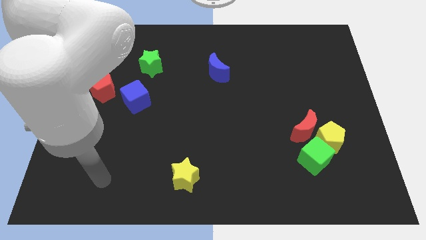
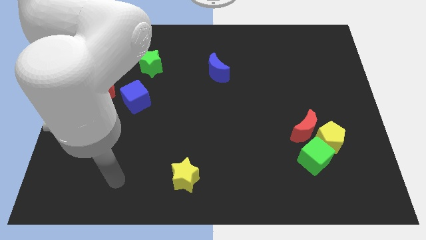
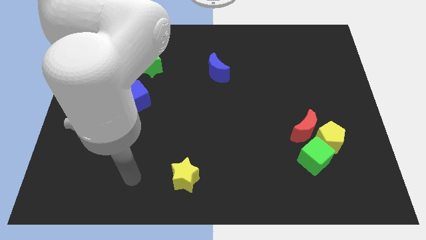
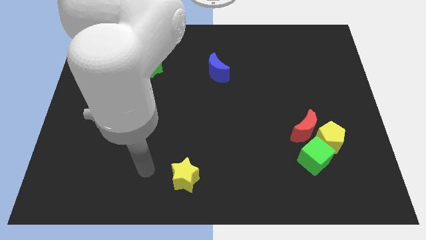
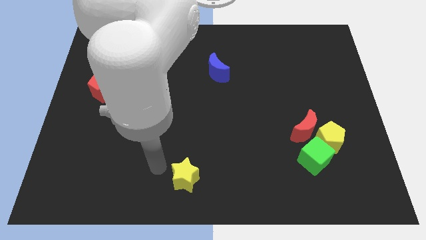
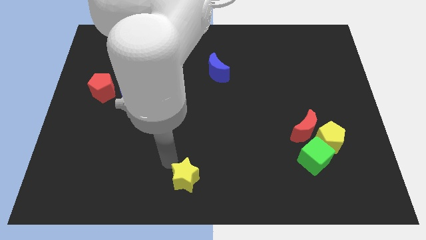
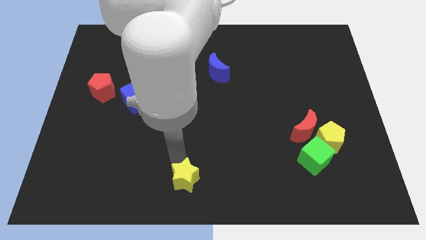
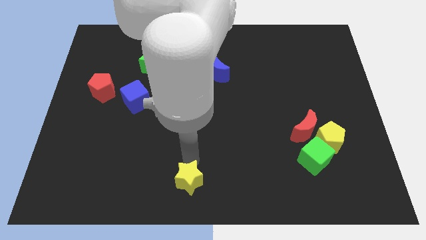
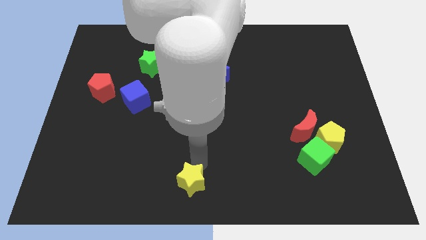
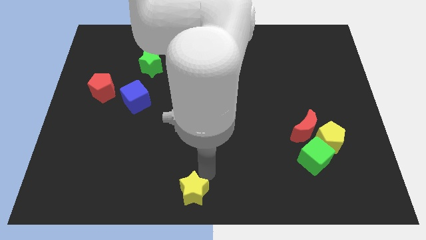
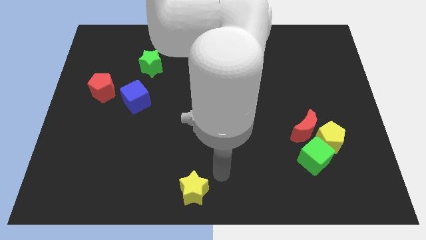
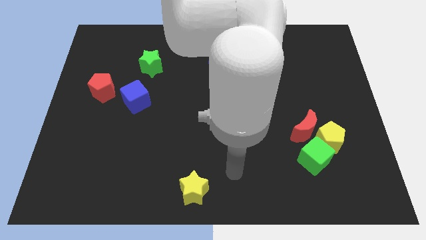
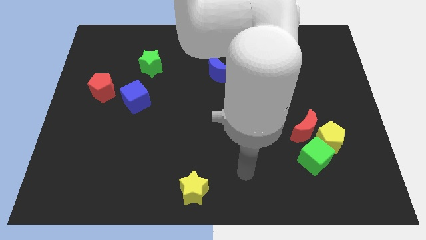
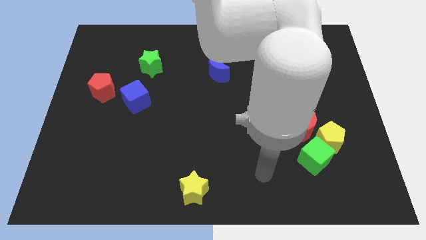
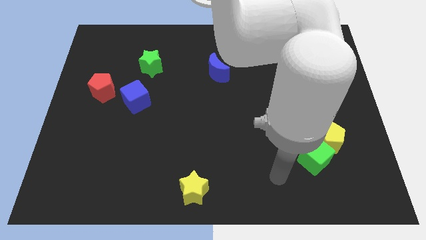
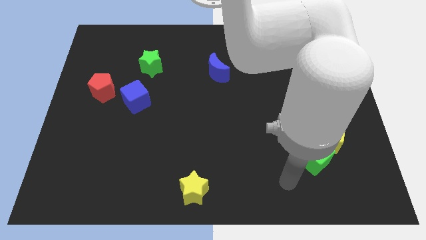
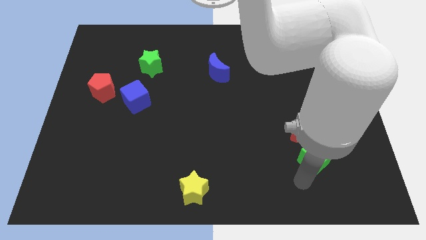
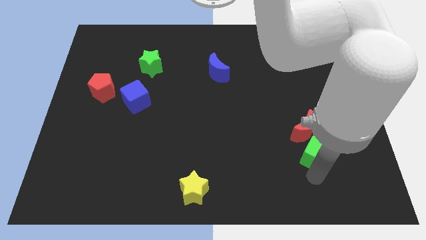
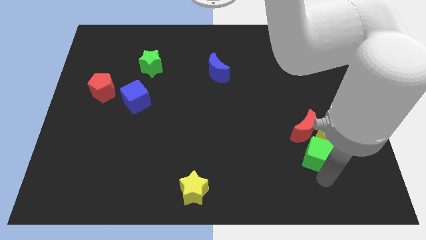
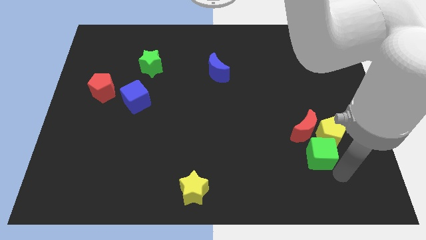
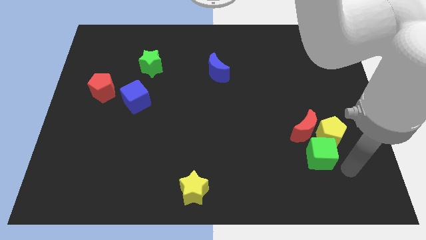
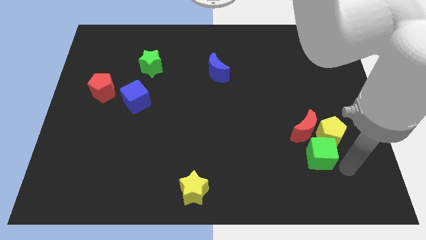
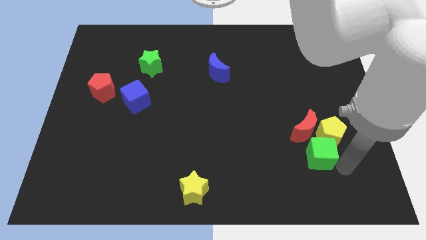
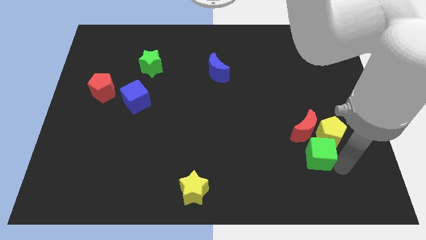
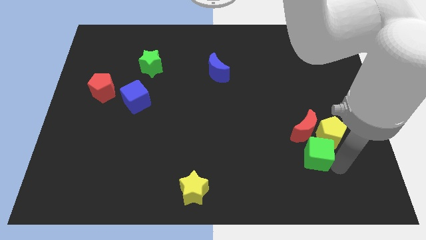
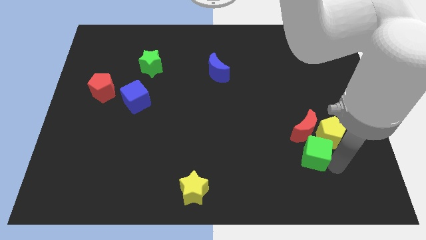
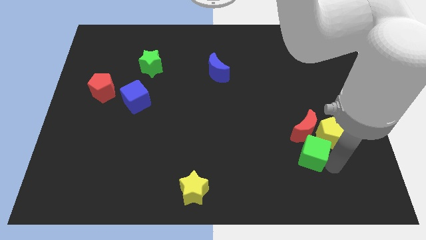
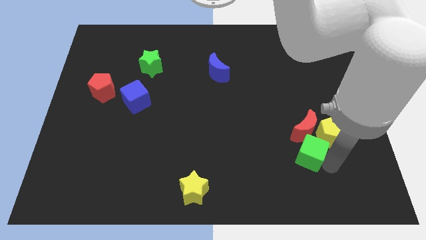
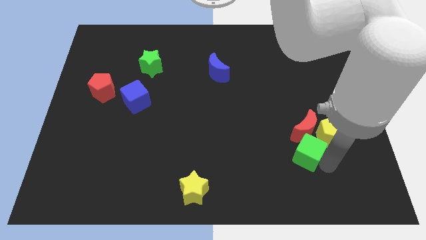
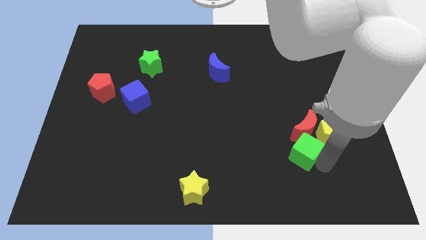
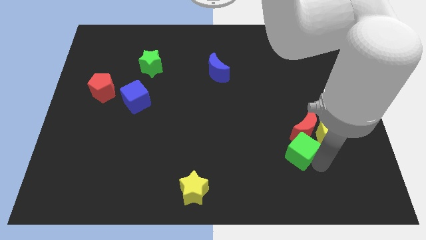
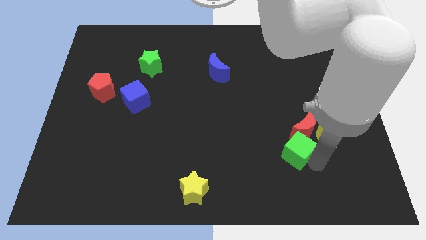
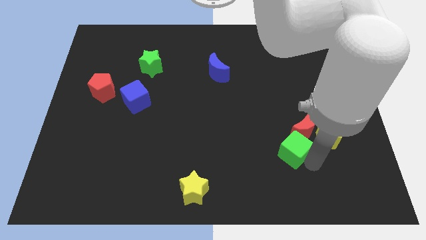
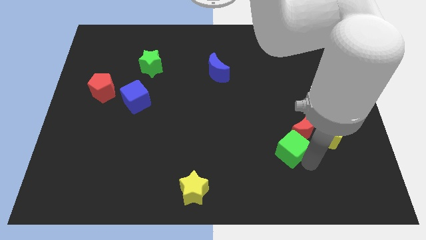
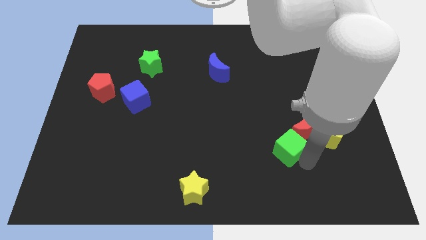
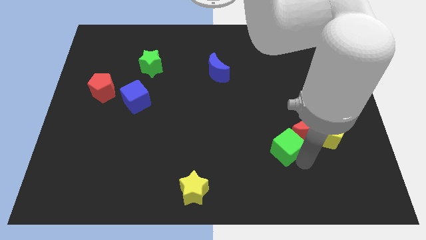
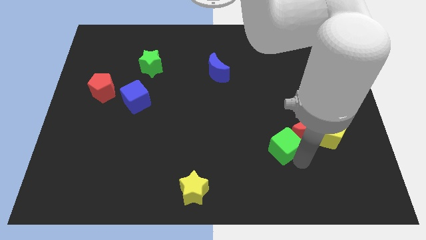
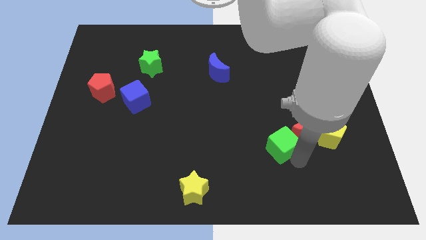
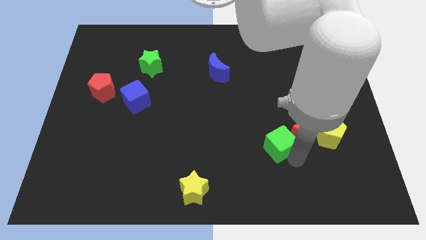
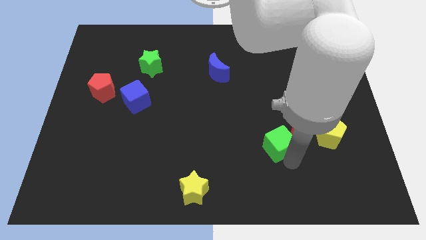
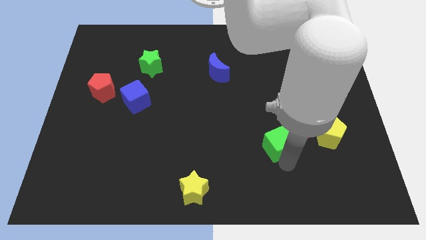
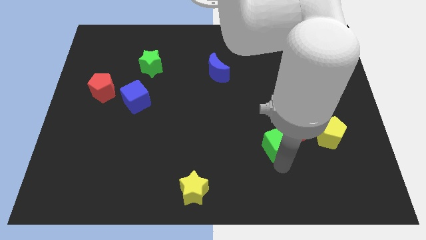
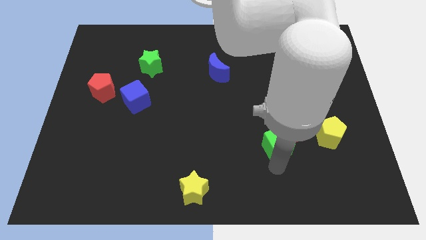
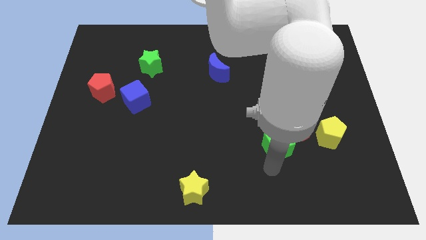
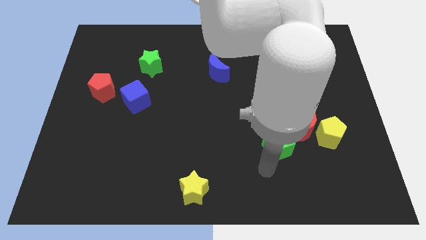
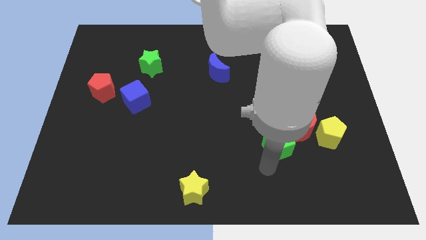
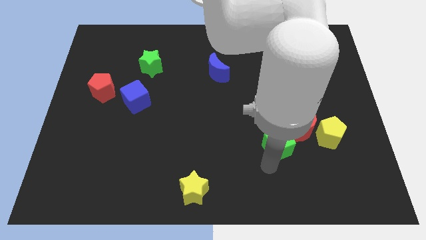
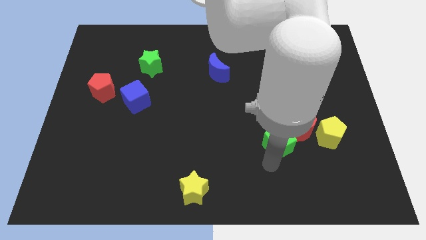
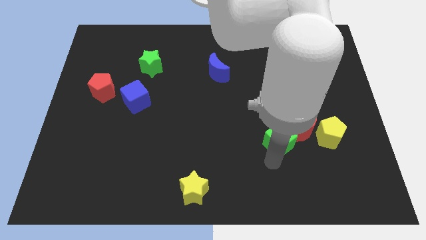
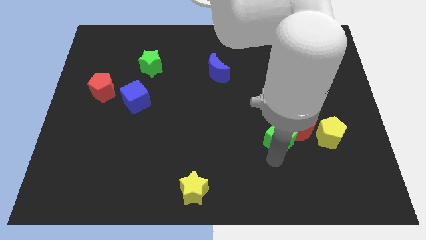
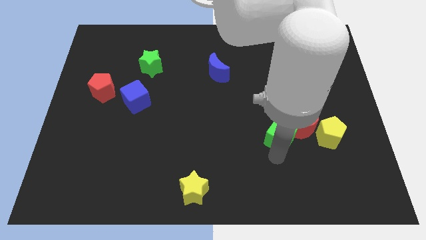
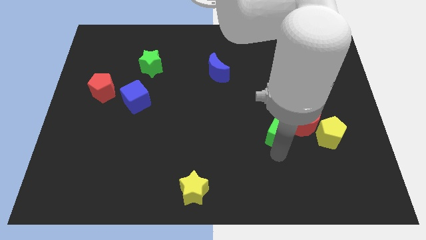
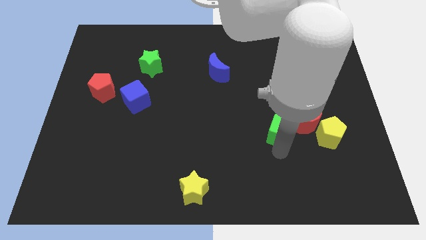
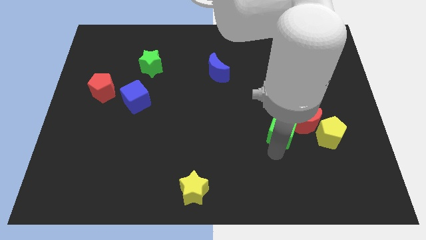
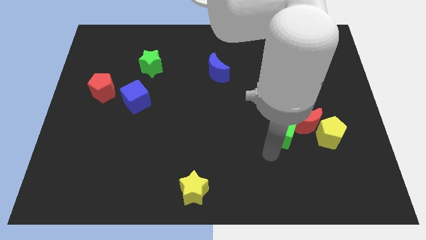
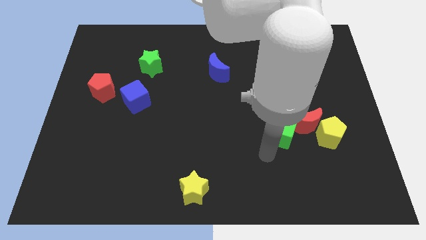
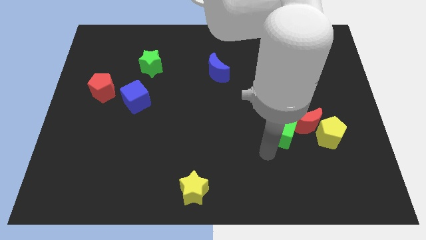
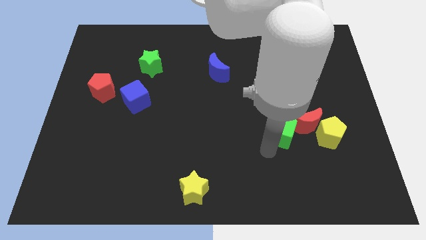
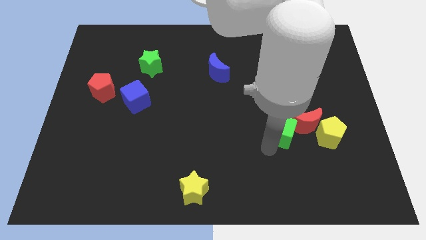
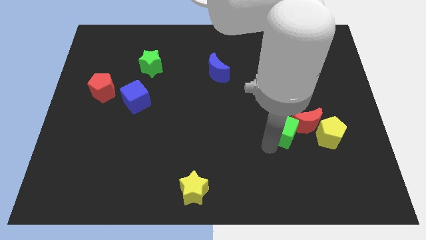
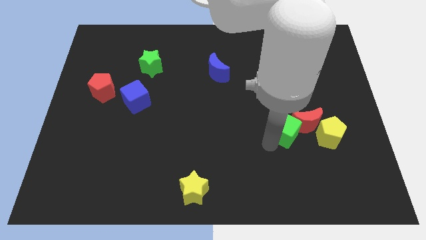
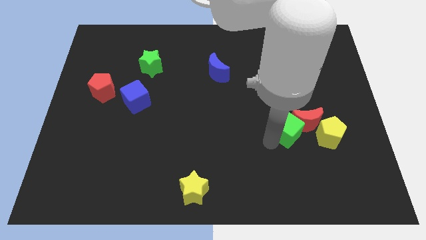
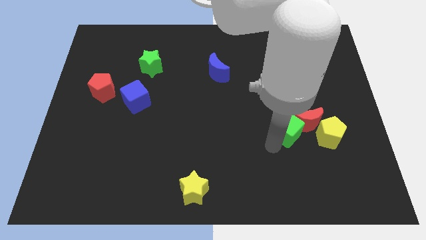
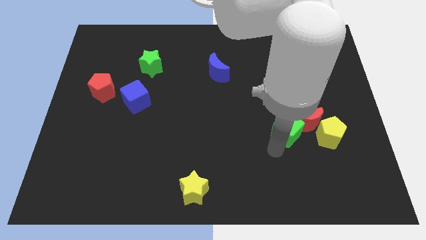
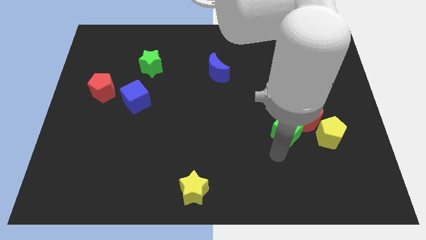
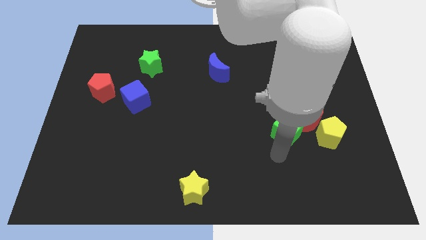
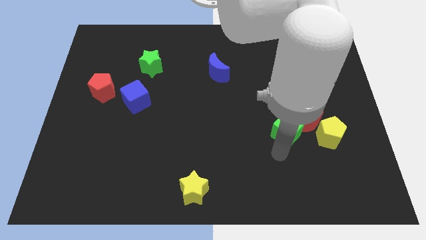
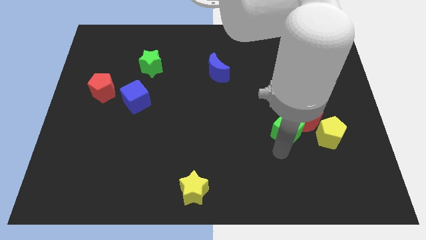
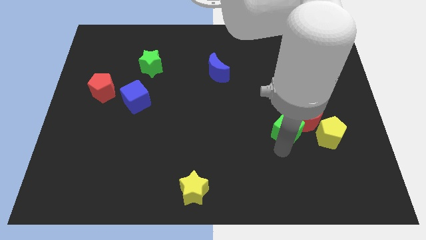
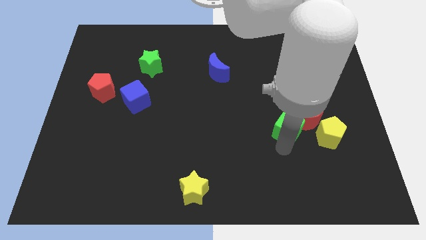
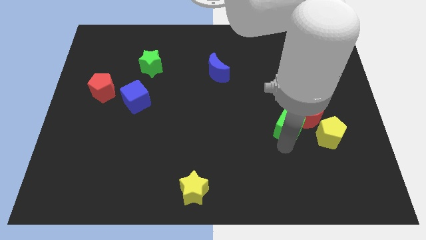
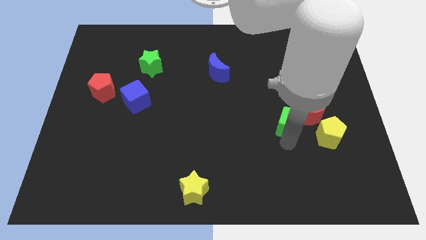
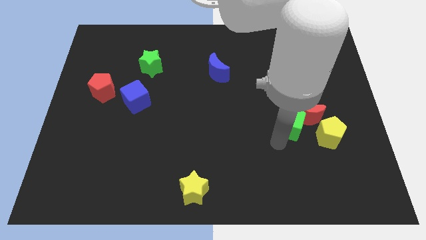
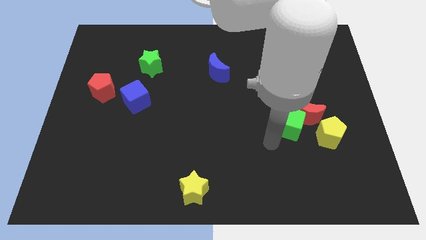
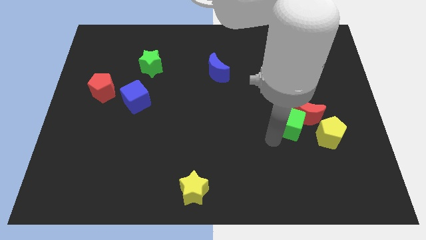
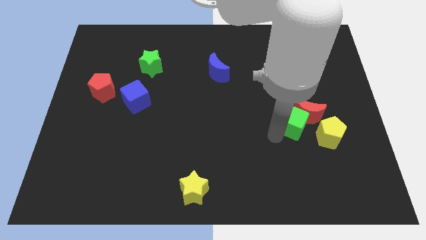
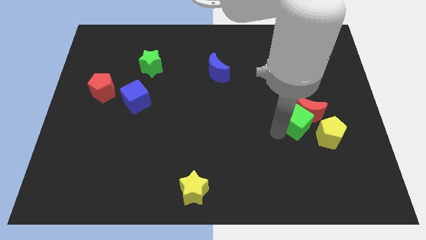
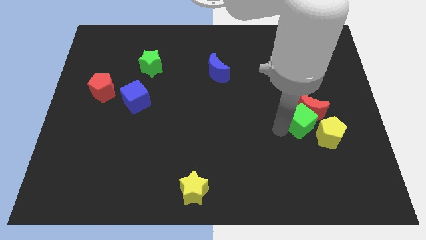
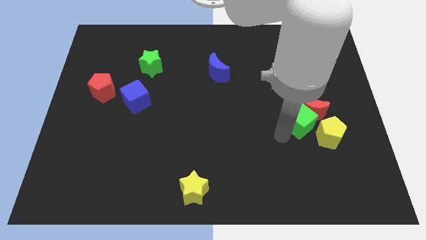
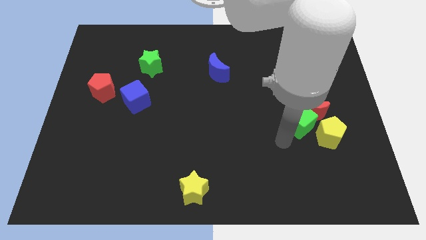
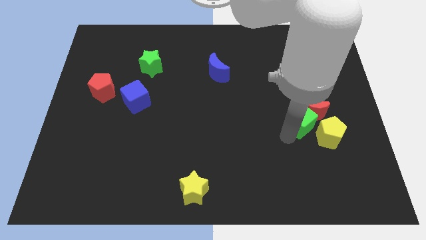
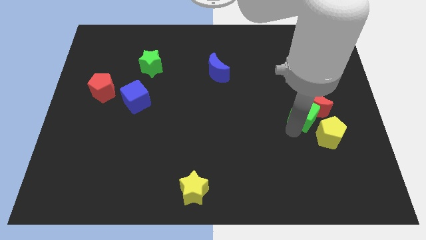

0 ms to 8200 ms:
move the green cube above the yellow pentagon

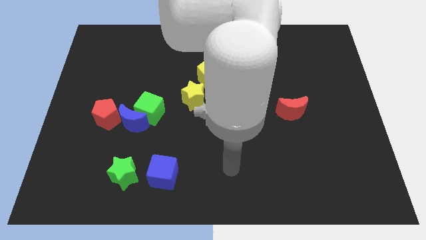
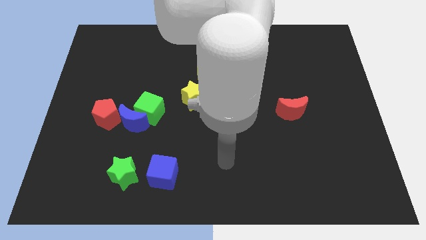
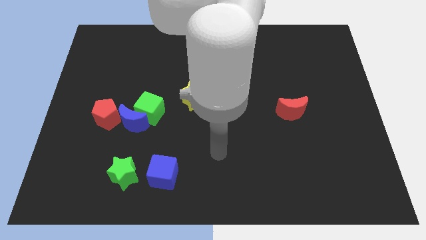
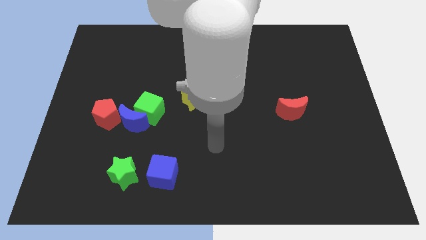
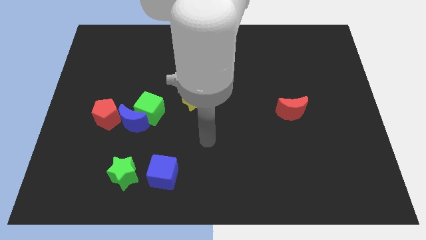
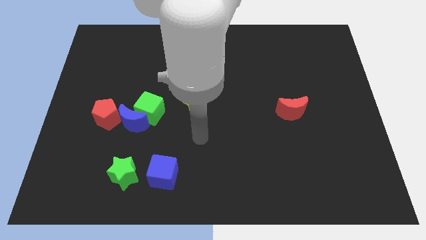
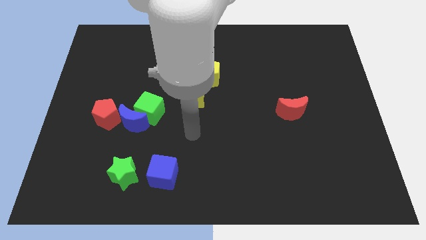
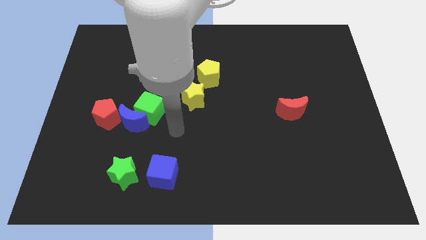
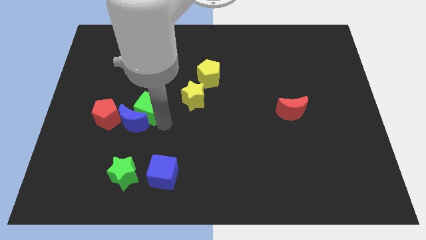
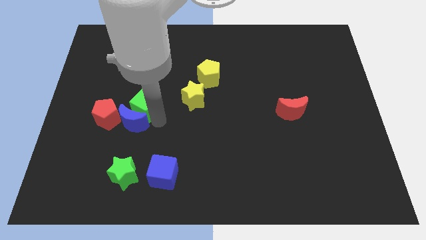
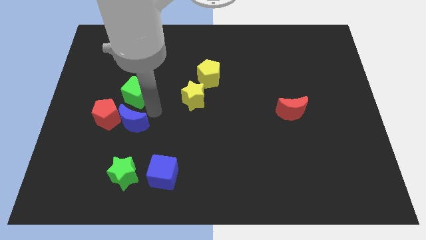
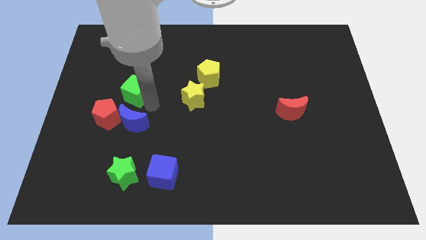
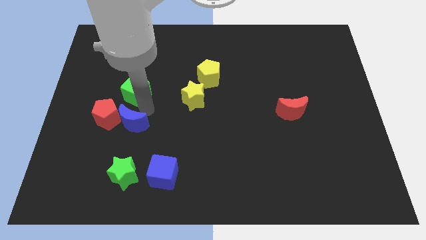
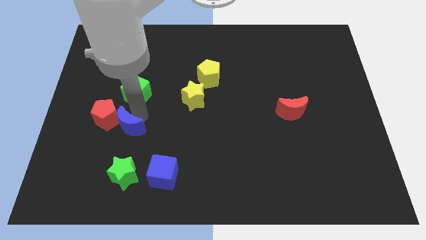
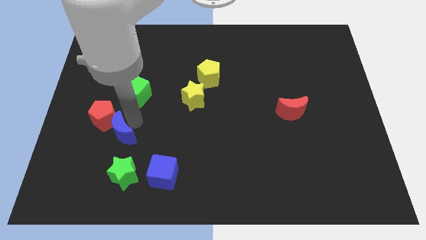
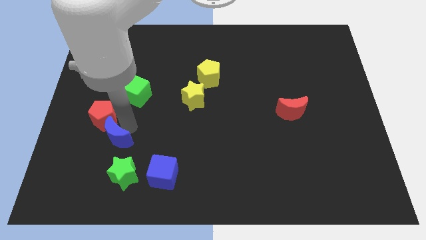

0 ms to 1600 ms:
move the blue moon to the top left of the green star
